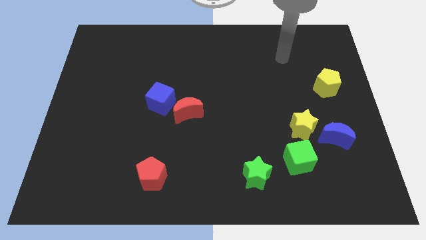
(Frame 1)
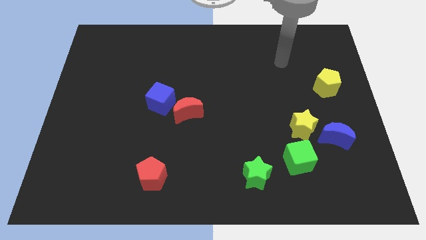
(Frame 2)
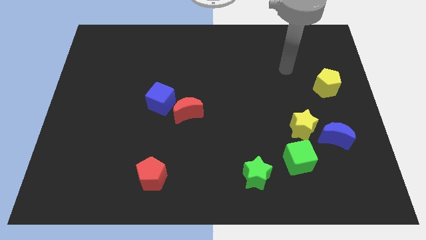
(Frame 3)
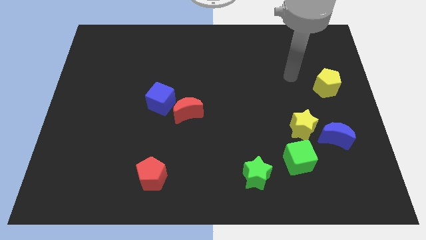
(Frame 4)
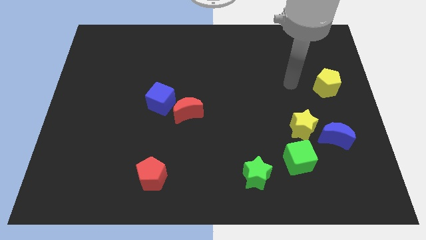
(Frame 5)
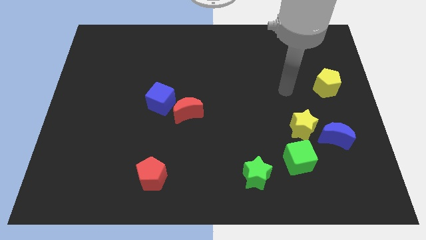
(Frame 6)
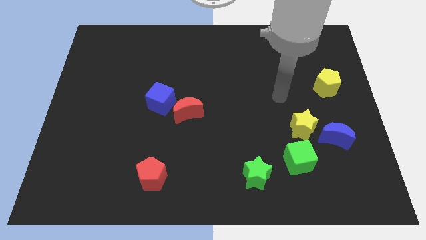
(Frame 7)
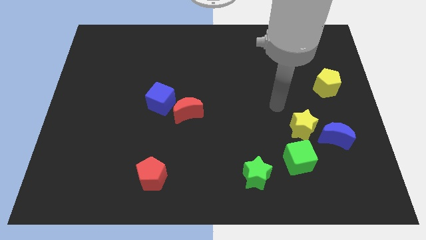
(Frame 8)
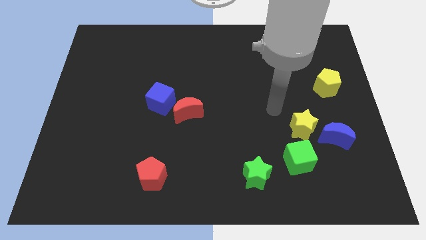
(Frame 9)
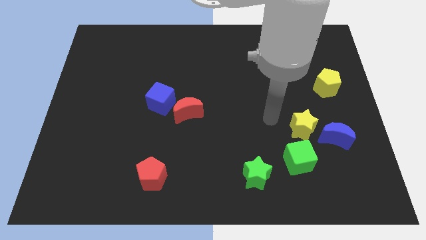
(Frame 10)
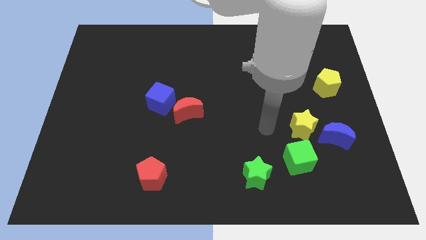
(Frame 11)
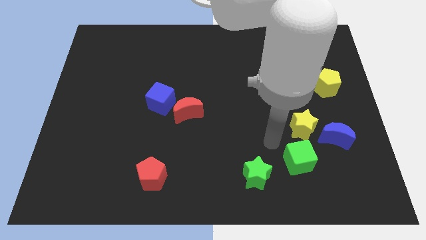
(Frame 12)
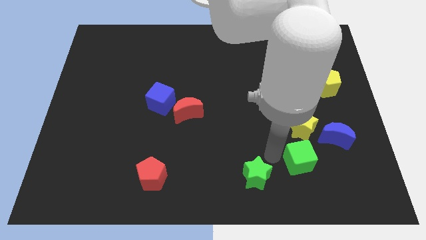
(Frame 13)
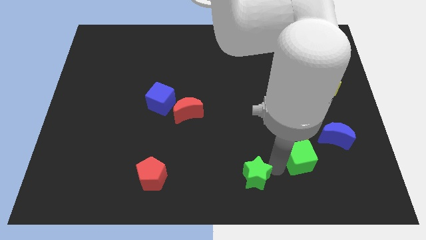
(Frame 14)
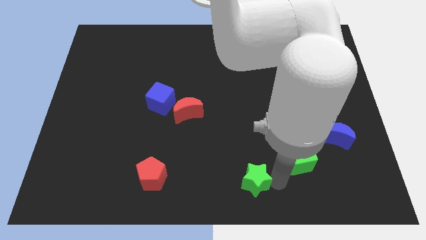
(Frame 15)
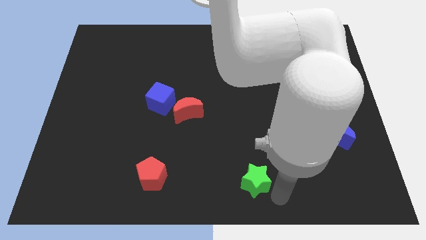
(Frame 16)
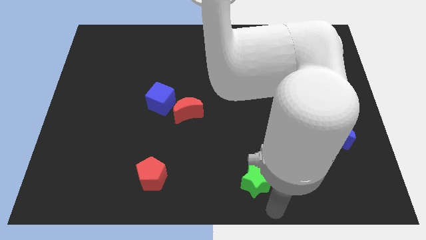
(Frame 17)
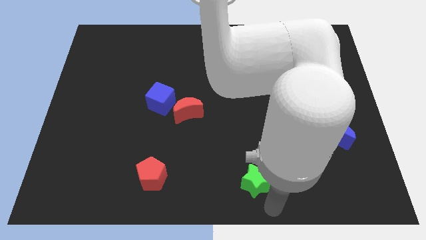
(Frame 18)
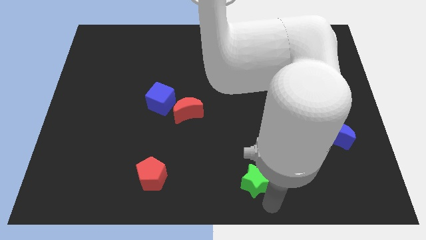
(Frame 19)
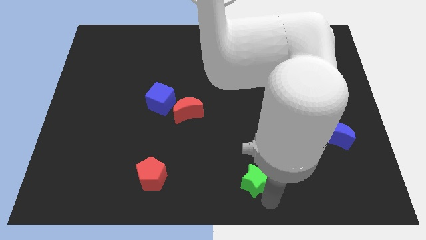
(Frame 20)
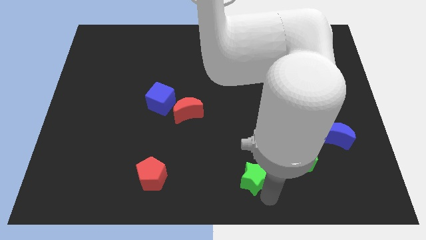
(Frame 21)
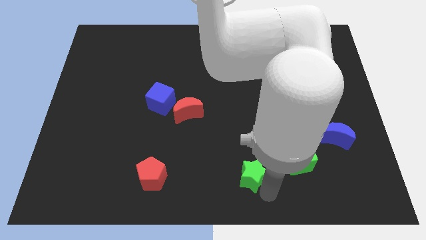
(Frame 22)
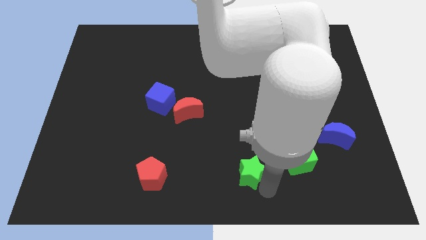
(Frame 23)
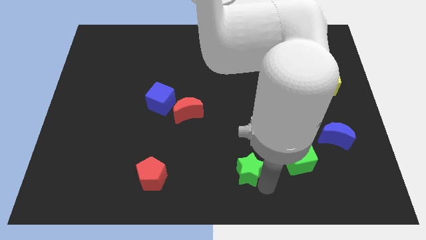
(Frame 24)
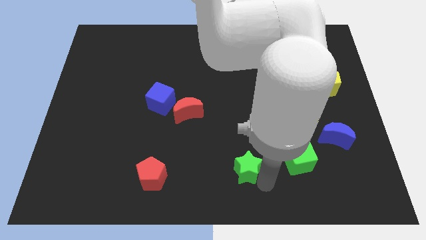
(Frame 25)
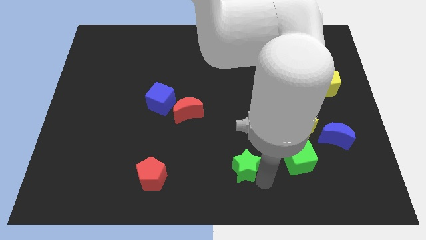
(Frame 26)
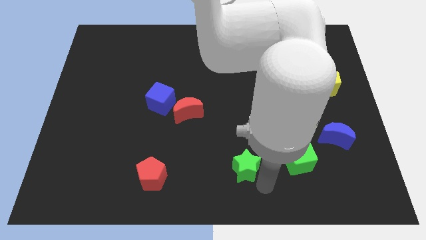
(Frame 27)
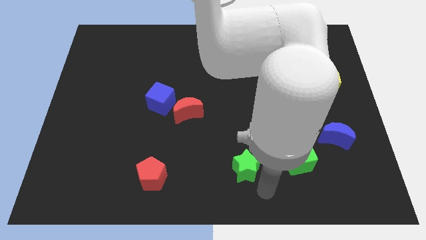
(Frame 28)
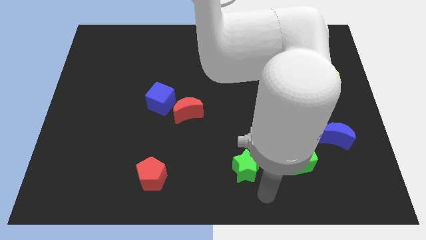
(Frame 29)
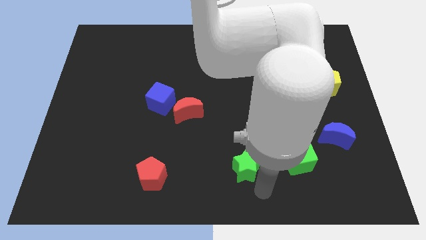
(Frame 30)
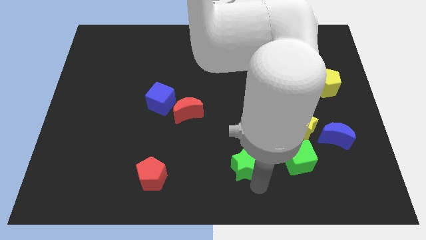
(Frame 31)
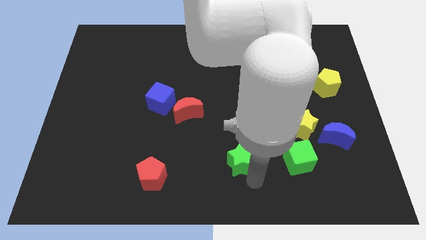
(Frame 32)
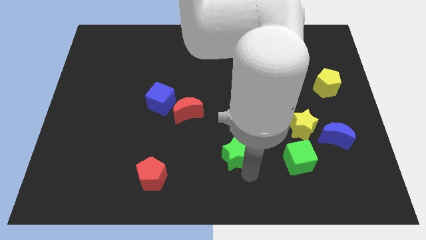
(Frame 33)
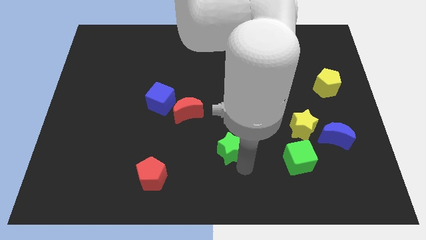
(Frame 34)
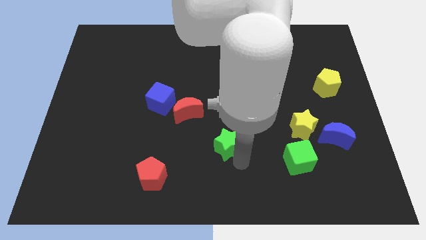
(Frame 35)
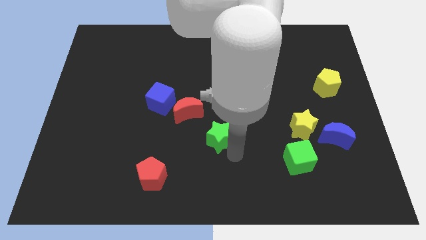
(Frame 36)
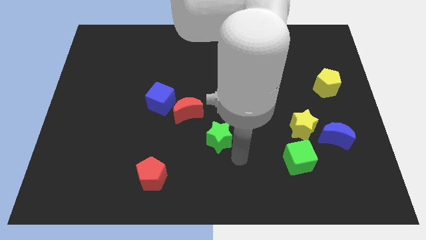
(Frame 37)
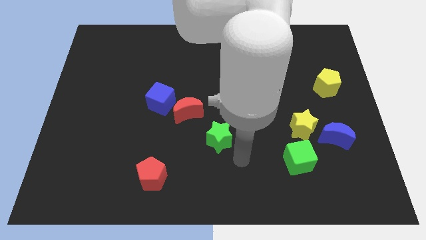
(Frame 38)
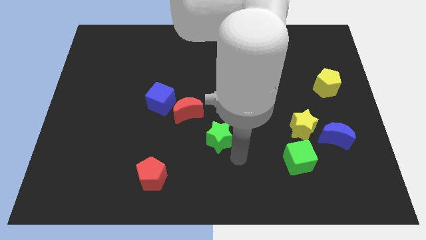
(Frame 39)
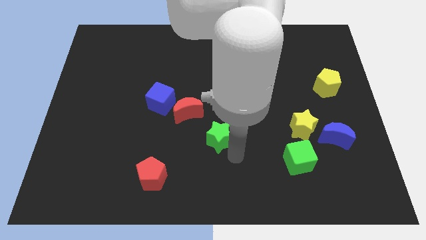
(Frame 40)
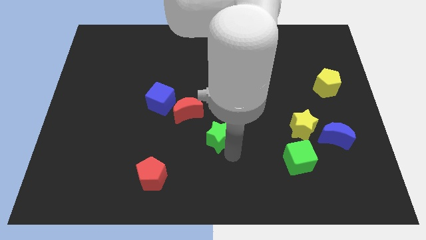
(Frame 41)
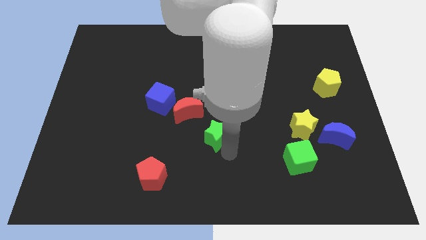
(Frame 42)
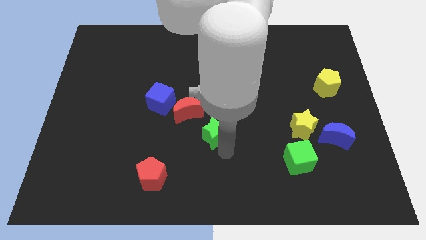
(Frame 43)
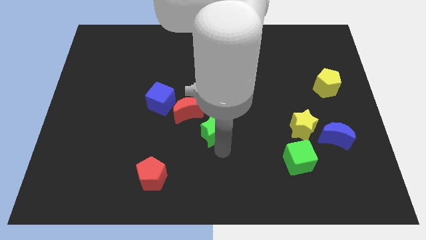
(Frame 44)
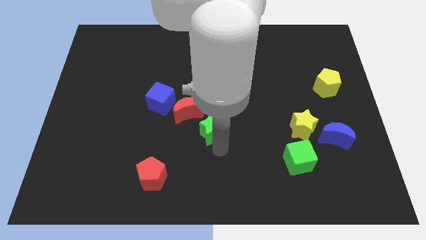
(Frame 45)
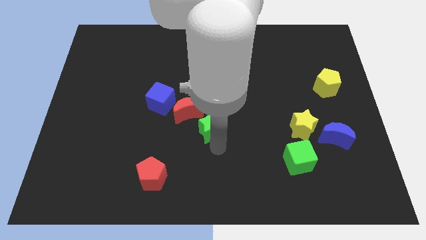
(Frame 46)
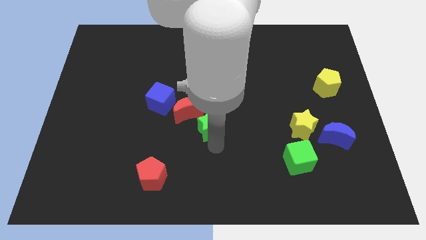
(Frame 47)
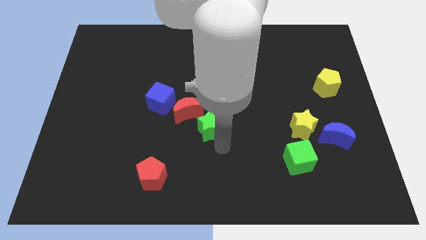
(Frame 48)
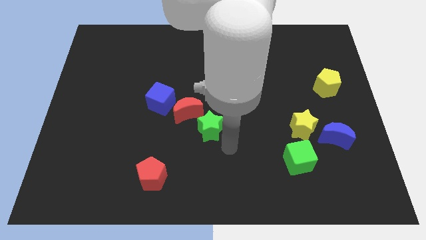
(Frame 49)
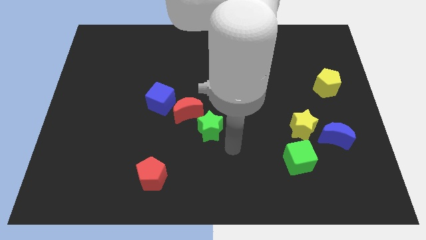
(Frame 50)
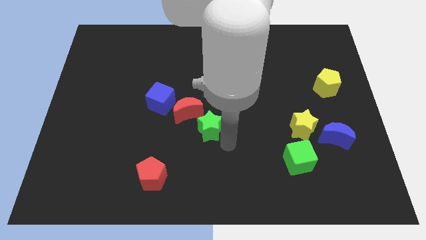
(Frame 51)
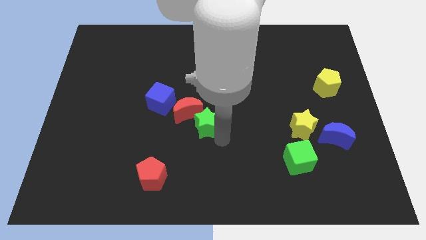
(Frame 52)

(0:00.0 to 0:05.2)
slide the green star next to the red moon

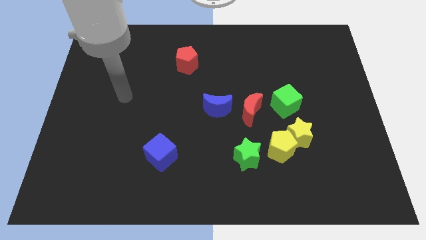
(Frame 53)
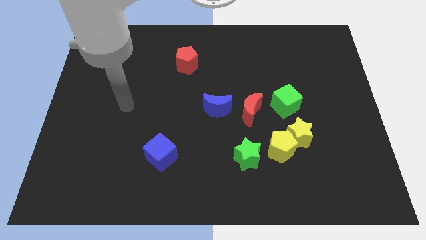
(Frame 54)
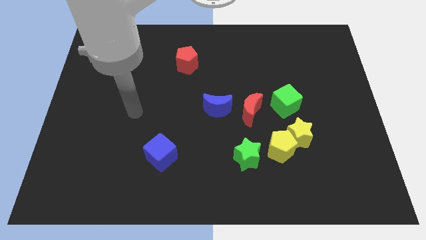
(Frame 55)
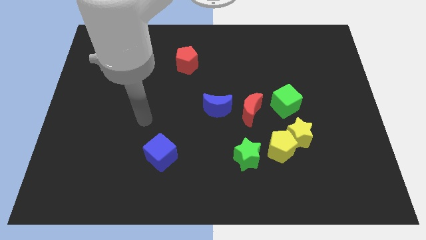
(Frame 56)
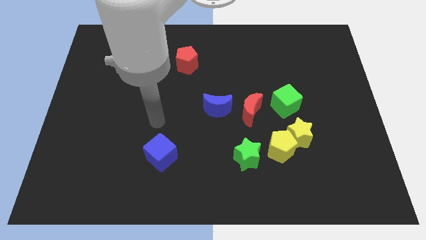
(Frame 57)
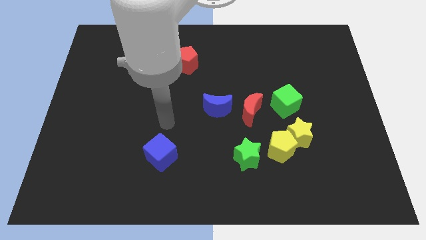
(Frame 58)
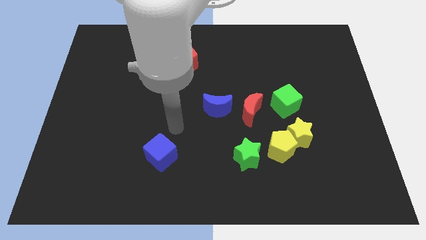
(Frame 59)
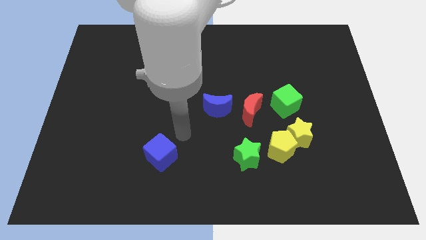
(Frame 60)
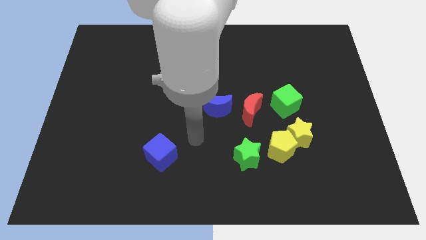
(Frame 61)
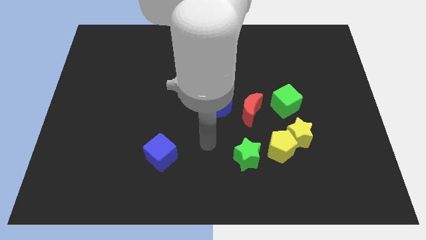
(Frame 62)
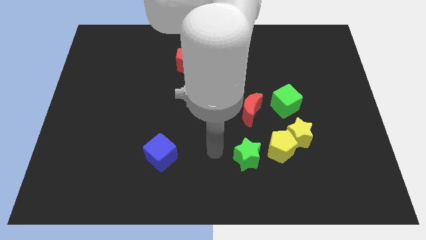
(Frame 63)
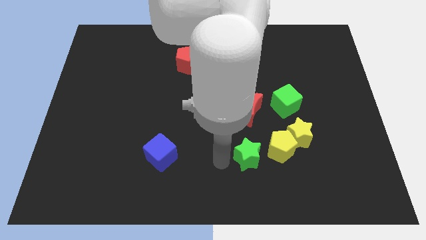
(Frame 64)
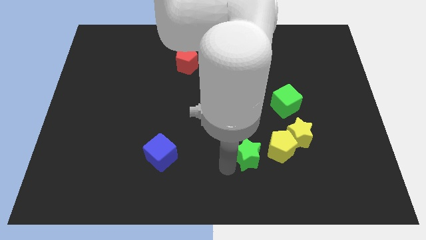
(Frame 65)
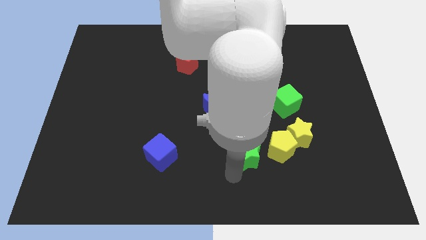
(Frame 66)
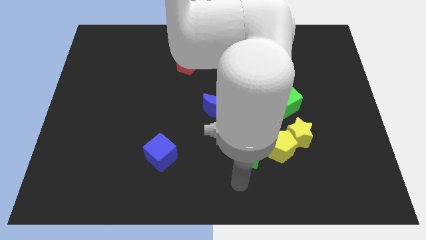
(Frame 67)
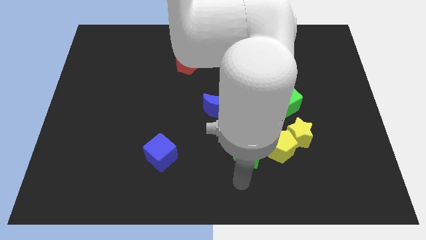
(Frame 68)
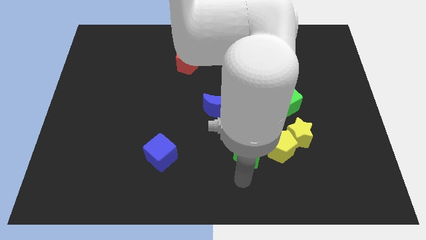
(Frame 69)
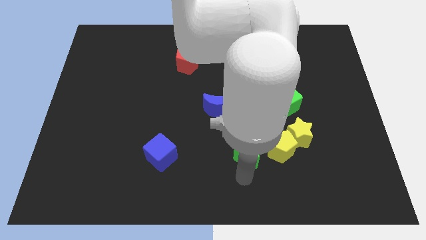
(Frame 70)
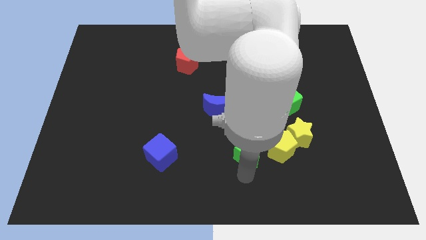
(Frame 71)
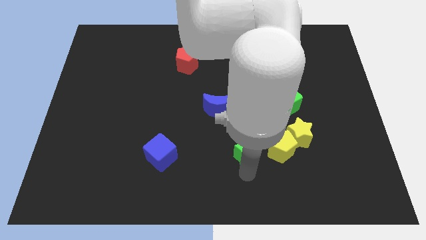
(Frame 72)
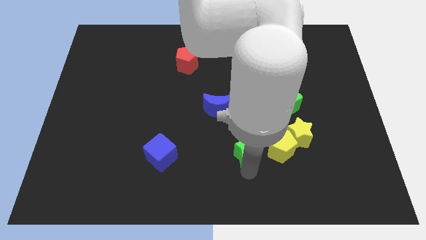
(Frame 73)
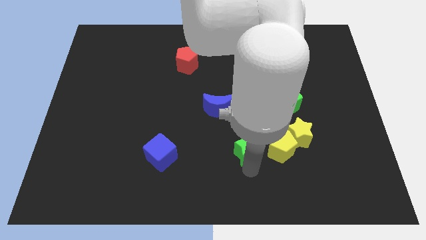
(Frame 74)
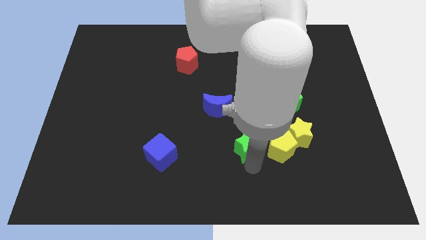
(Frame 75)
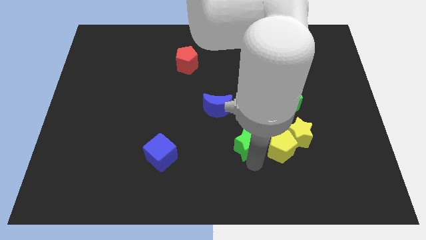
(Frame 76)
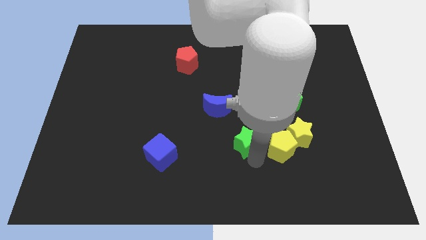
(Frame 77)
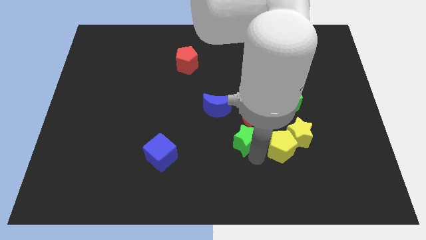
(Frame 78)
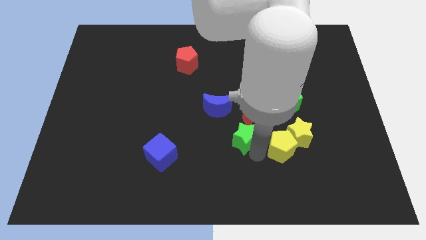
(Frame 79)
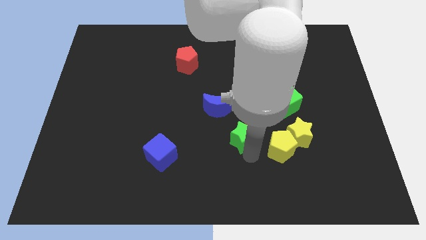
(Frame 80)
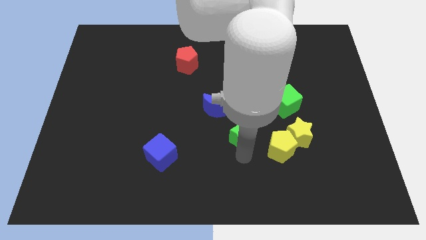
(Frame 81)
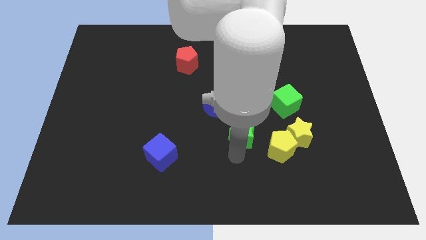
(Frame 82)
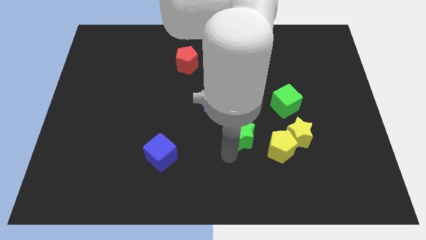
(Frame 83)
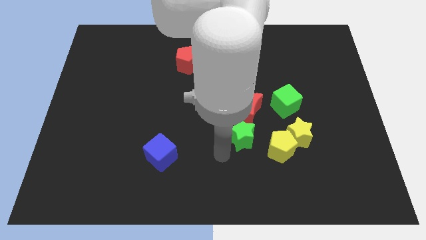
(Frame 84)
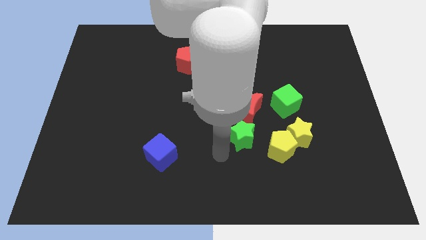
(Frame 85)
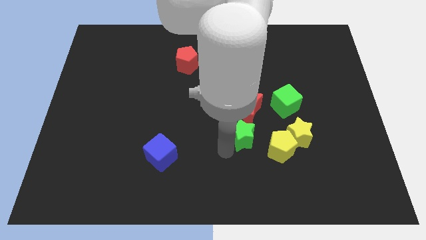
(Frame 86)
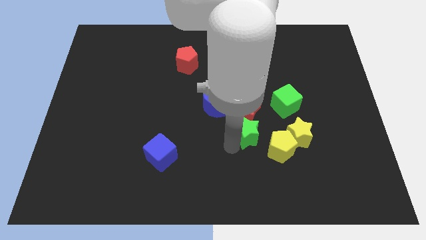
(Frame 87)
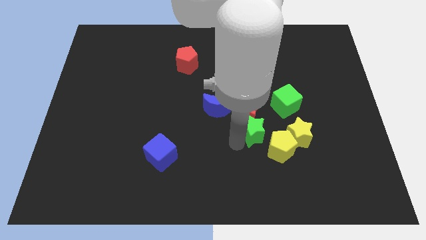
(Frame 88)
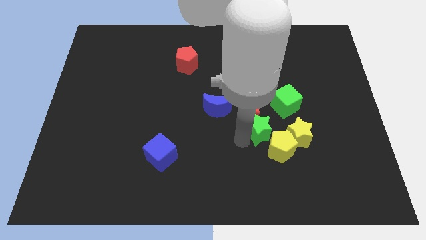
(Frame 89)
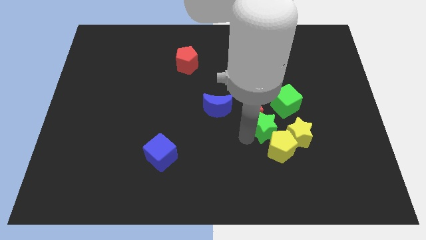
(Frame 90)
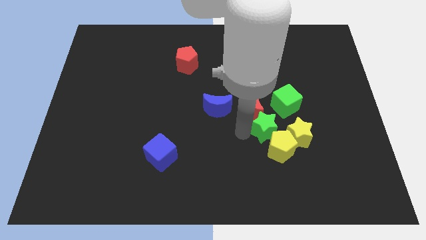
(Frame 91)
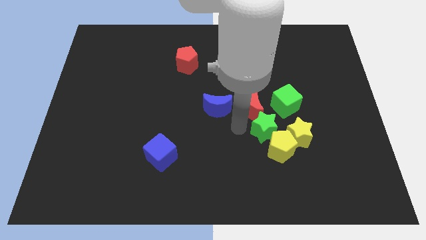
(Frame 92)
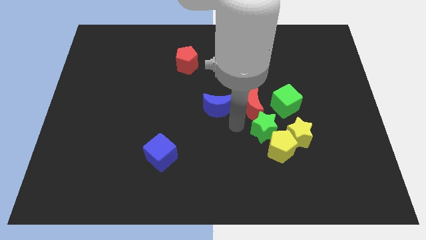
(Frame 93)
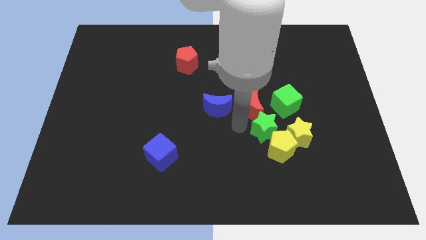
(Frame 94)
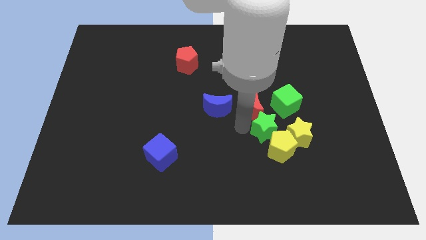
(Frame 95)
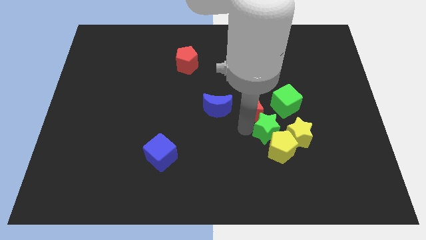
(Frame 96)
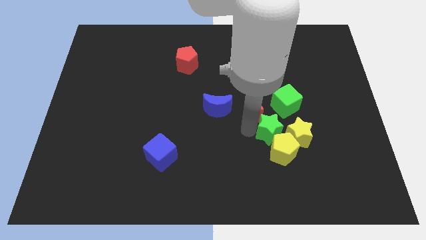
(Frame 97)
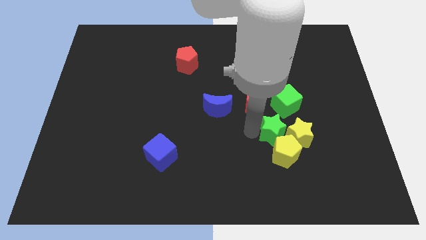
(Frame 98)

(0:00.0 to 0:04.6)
move the green star towards the yellow star
